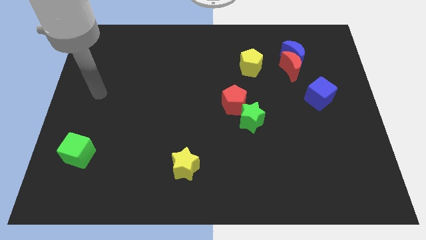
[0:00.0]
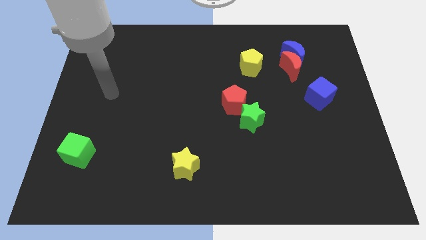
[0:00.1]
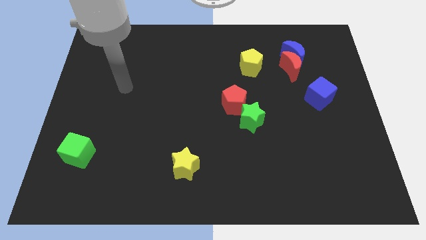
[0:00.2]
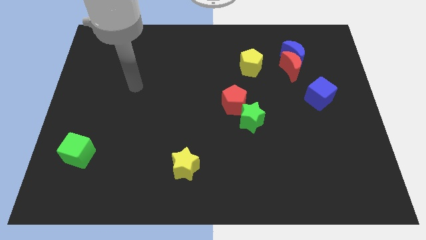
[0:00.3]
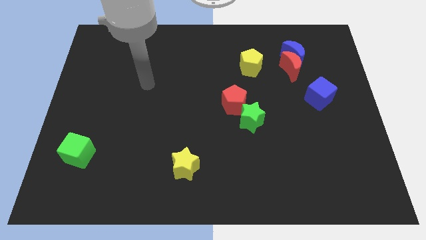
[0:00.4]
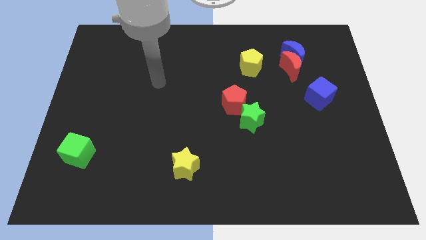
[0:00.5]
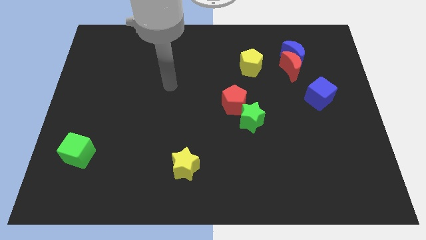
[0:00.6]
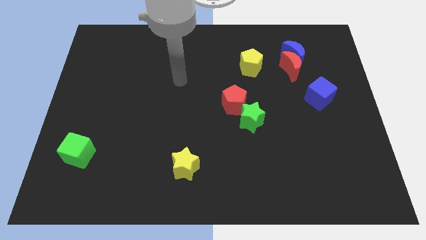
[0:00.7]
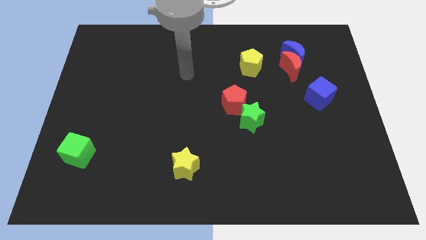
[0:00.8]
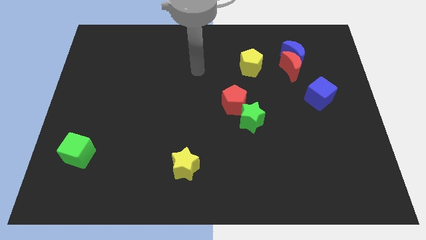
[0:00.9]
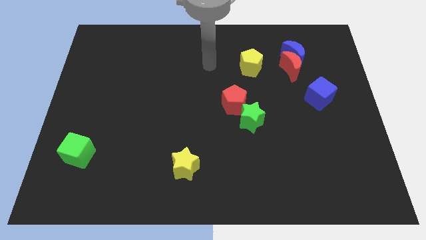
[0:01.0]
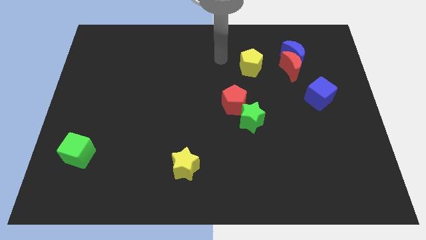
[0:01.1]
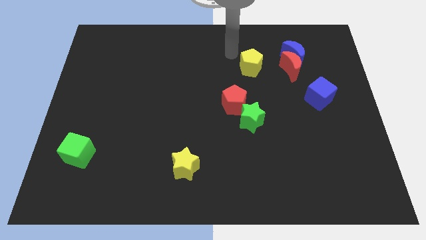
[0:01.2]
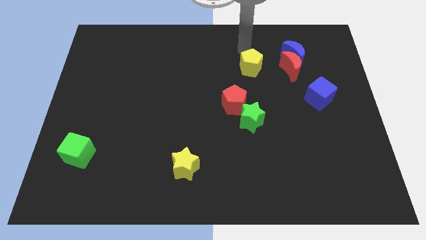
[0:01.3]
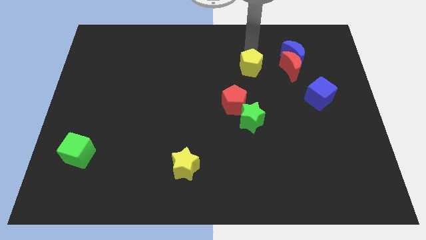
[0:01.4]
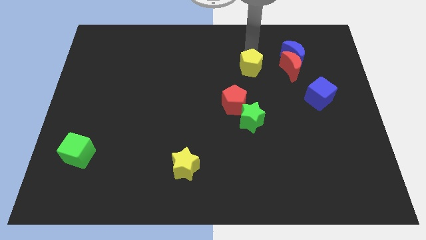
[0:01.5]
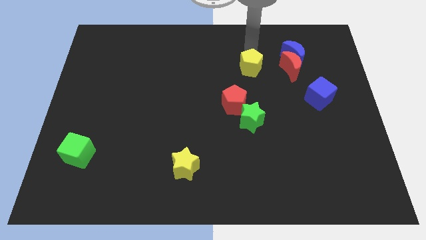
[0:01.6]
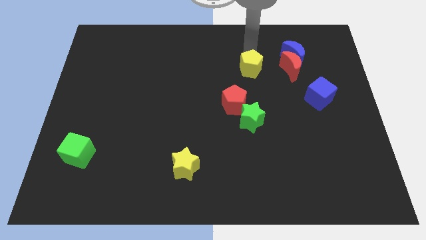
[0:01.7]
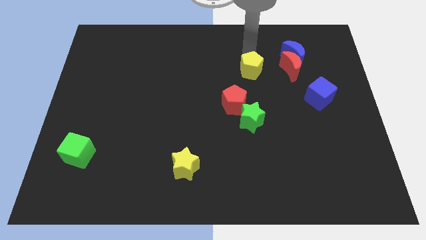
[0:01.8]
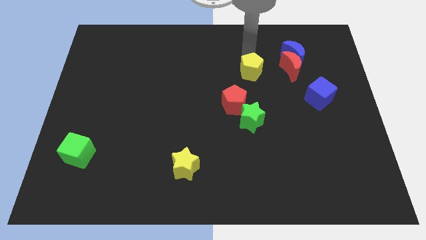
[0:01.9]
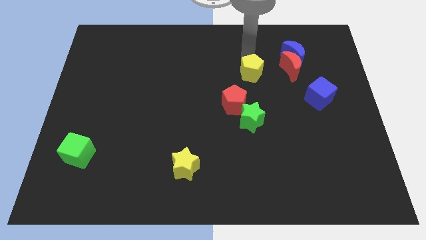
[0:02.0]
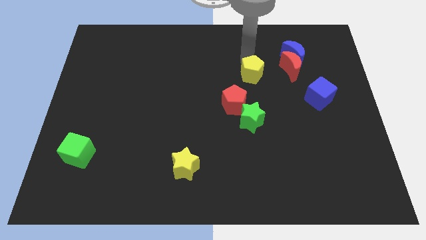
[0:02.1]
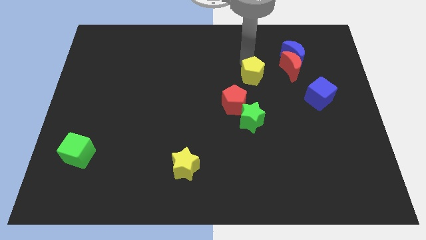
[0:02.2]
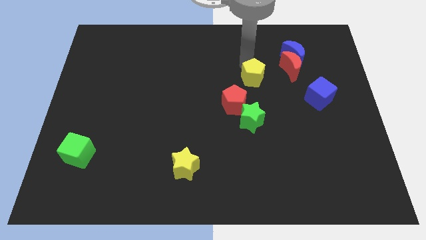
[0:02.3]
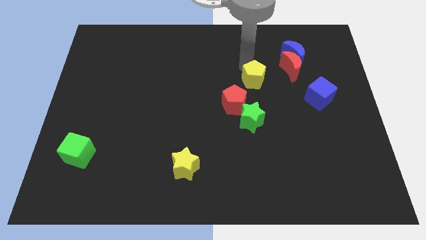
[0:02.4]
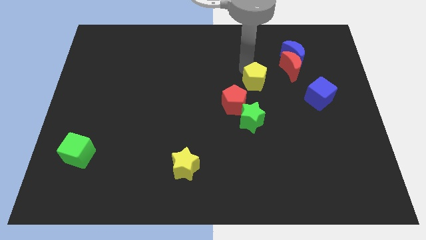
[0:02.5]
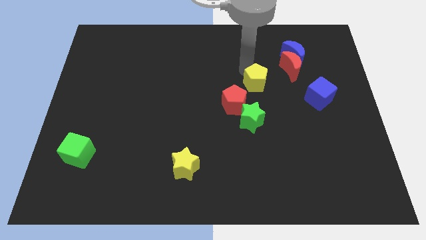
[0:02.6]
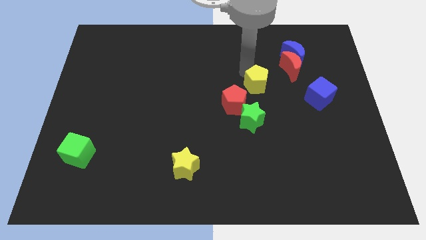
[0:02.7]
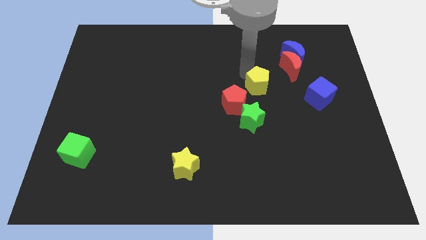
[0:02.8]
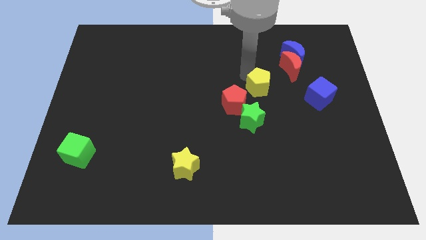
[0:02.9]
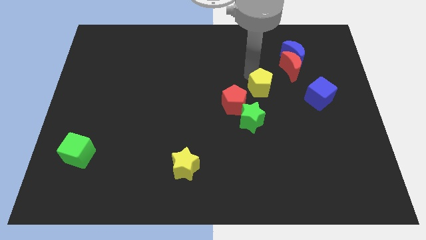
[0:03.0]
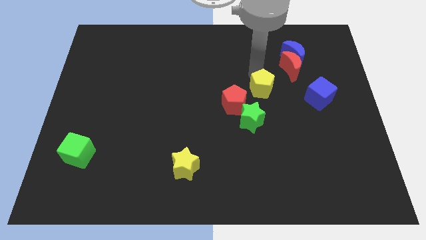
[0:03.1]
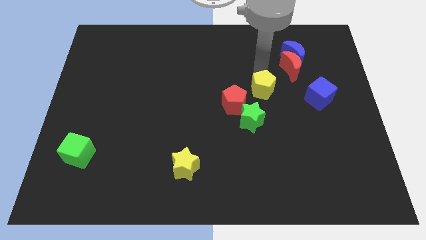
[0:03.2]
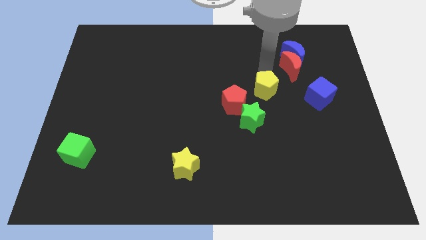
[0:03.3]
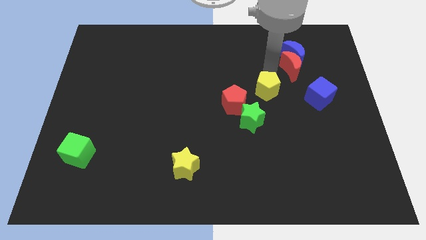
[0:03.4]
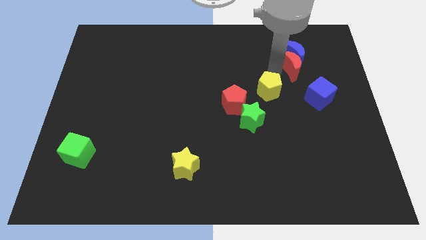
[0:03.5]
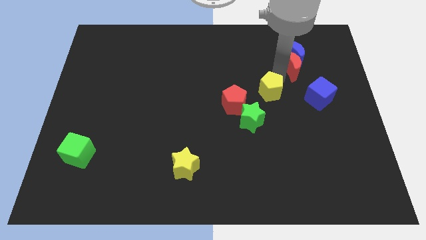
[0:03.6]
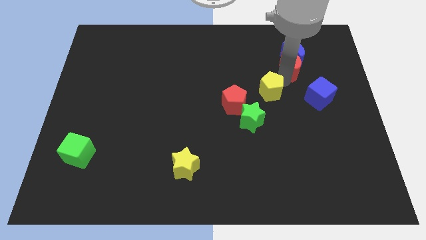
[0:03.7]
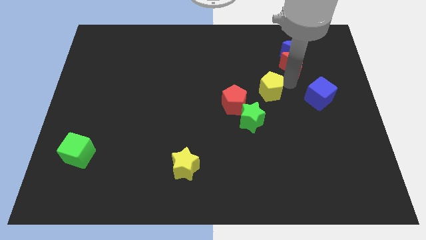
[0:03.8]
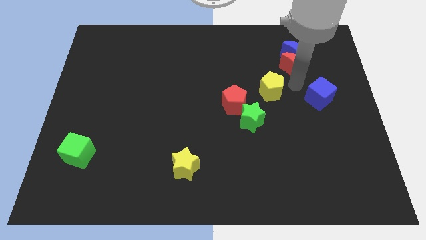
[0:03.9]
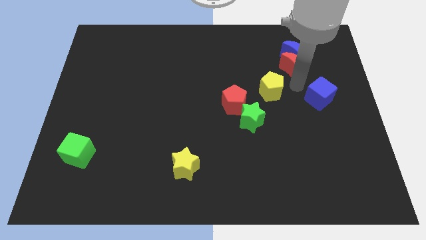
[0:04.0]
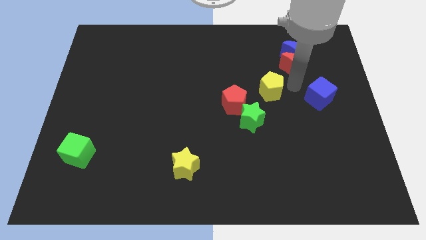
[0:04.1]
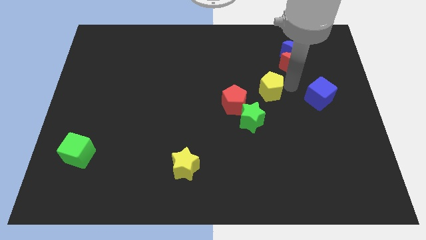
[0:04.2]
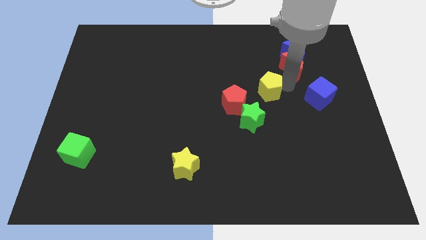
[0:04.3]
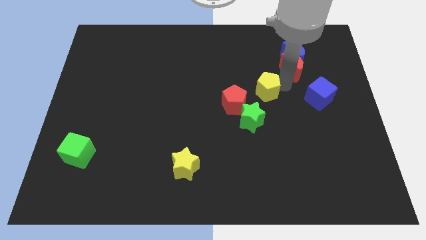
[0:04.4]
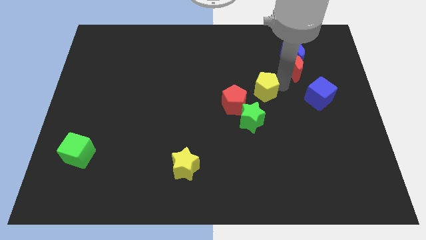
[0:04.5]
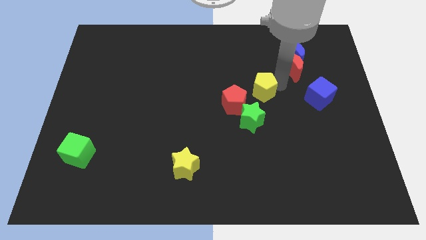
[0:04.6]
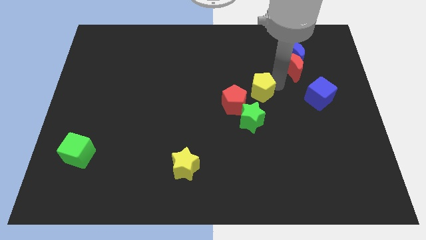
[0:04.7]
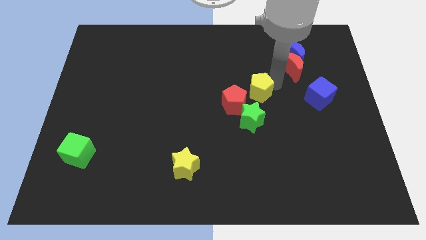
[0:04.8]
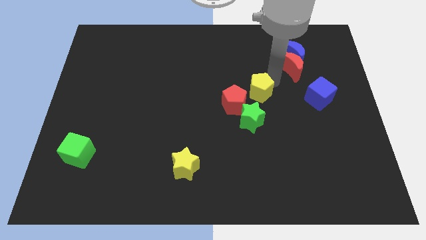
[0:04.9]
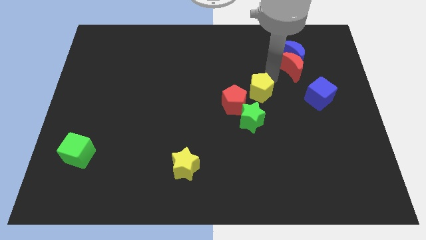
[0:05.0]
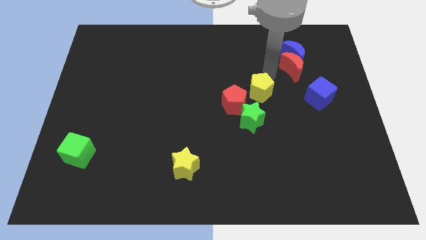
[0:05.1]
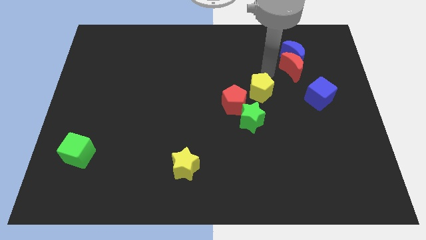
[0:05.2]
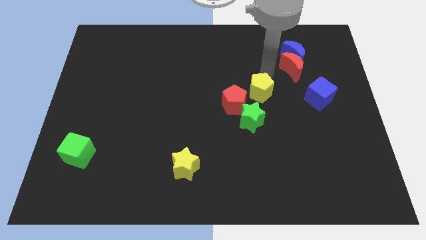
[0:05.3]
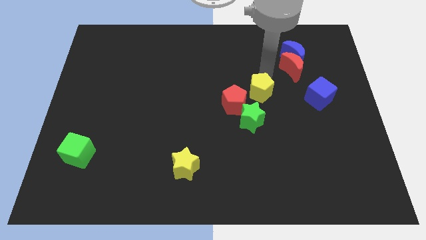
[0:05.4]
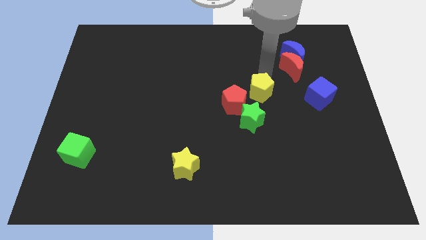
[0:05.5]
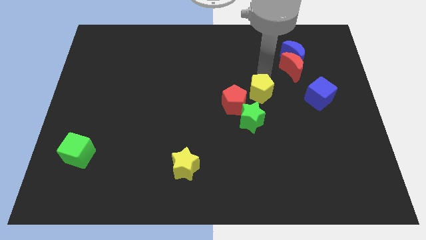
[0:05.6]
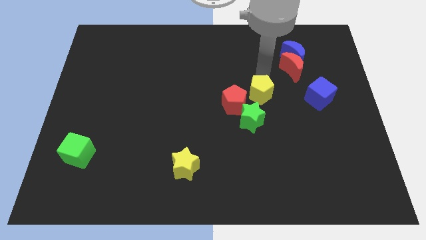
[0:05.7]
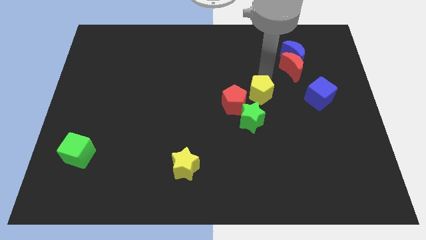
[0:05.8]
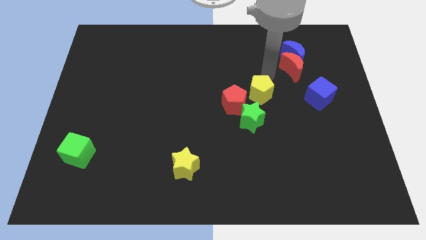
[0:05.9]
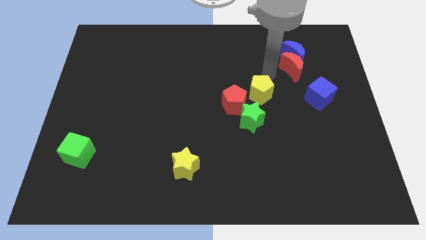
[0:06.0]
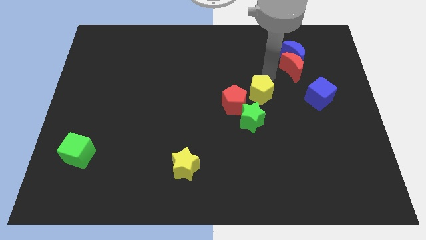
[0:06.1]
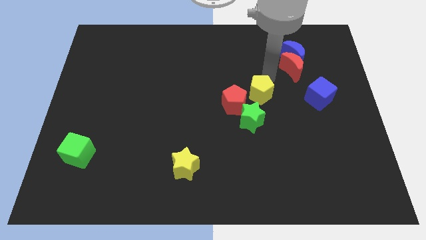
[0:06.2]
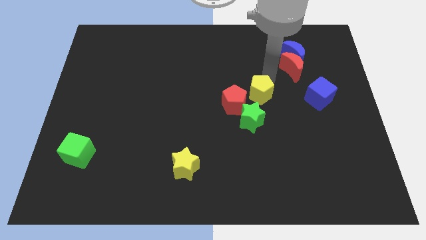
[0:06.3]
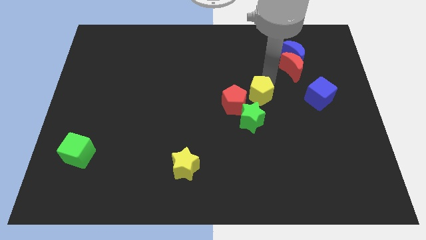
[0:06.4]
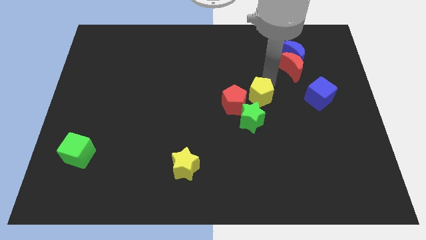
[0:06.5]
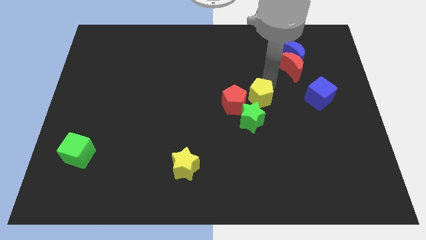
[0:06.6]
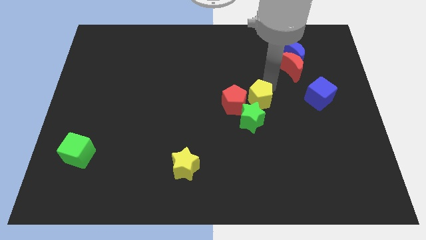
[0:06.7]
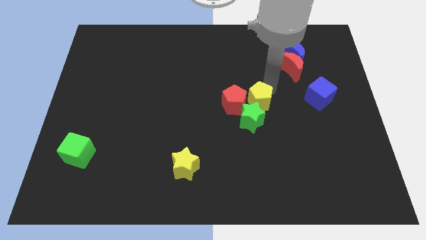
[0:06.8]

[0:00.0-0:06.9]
move the yellow pentagon to the green star
